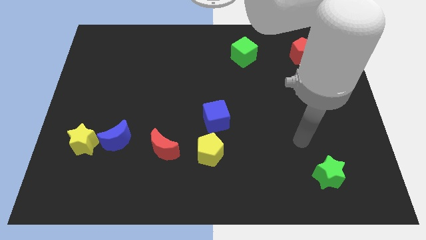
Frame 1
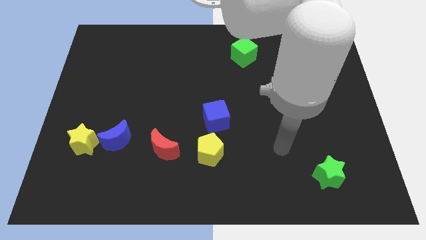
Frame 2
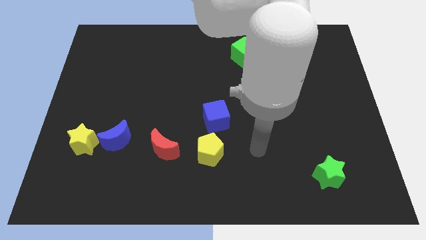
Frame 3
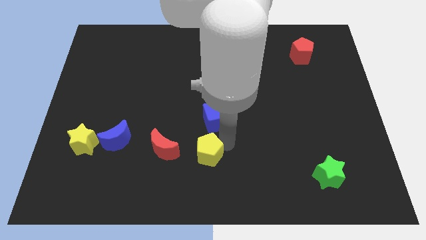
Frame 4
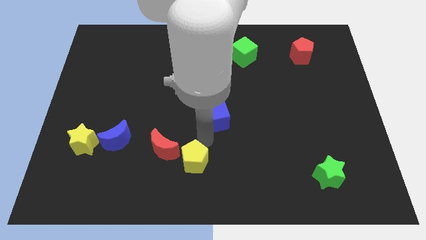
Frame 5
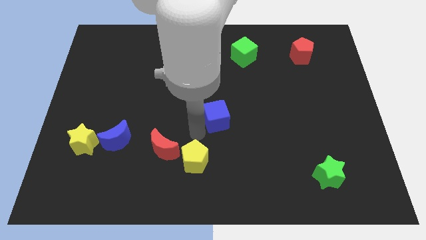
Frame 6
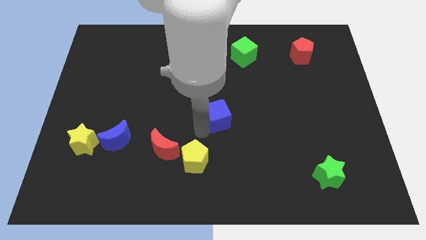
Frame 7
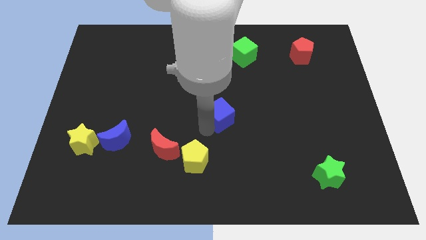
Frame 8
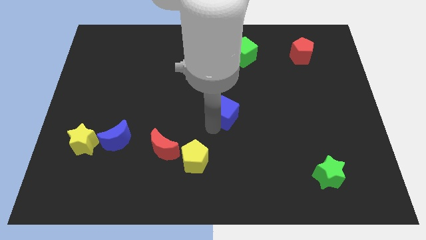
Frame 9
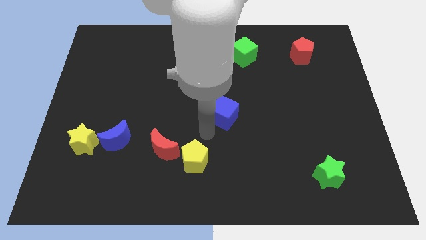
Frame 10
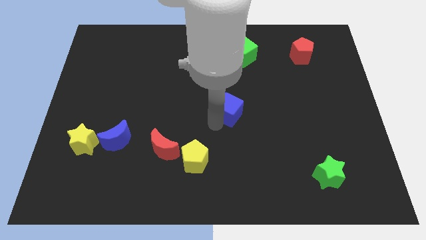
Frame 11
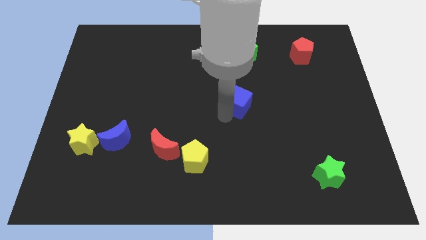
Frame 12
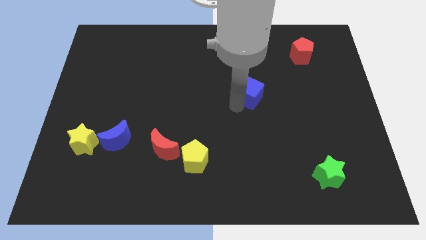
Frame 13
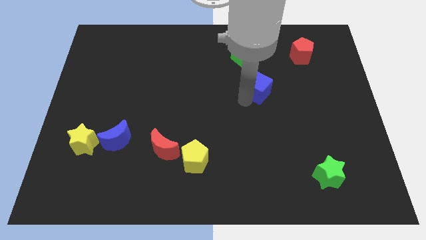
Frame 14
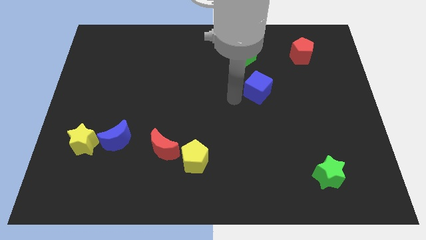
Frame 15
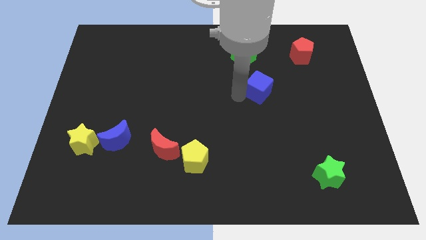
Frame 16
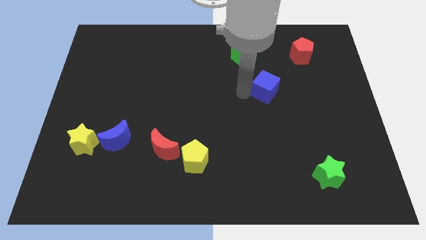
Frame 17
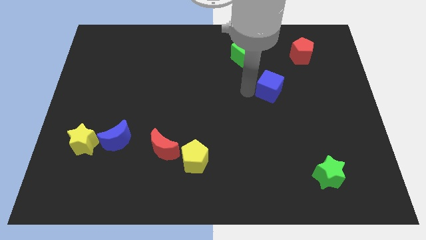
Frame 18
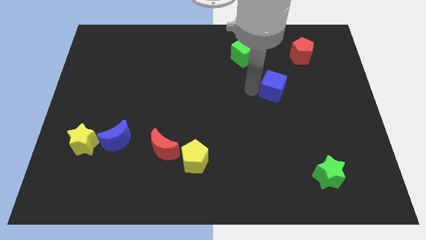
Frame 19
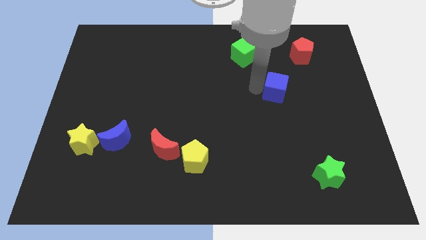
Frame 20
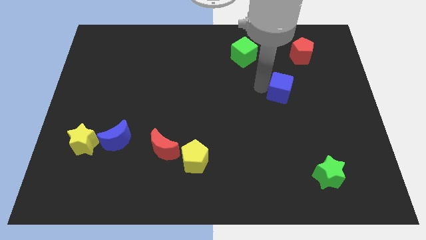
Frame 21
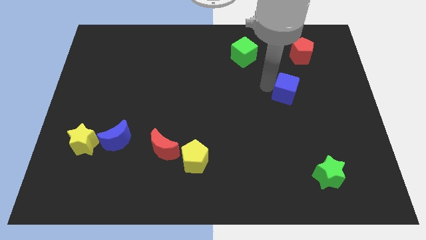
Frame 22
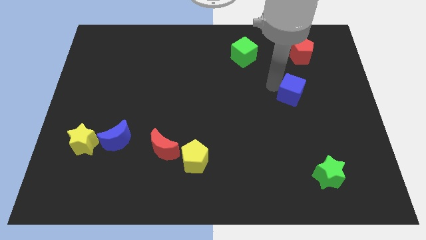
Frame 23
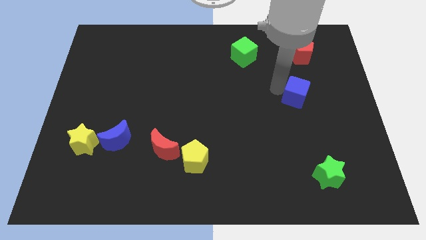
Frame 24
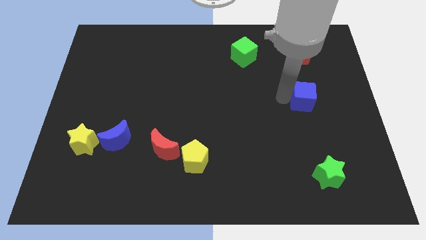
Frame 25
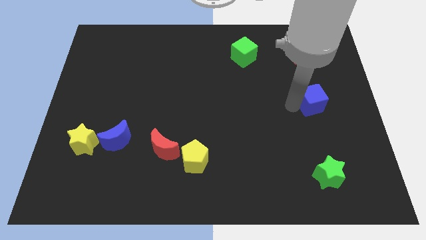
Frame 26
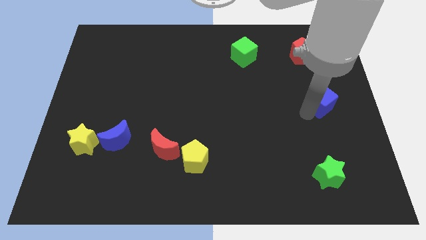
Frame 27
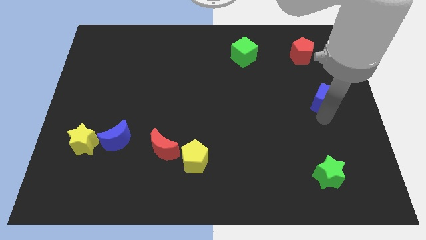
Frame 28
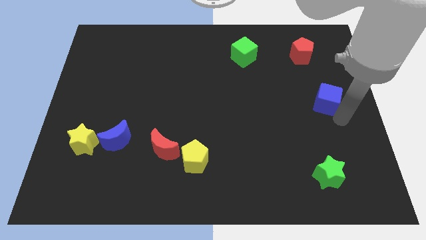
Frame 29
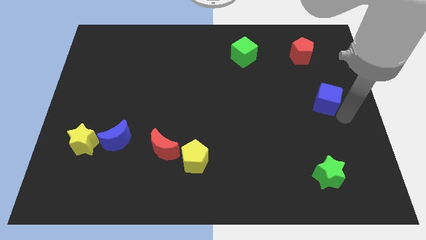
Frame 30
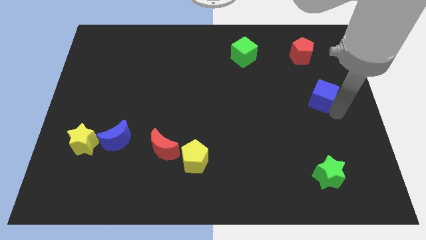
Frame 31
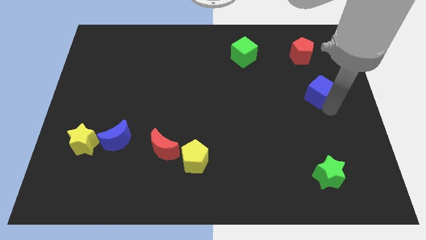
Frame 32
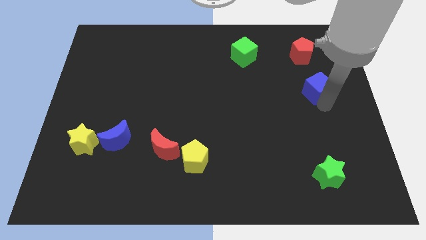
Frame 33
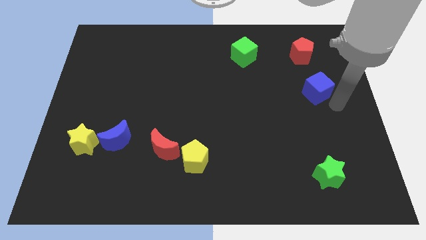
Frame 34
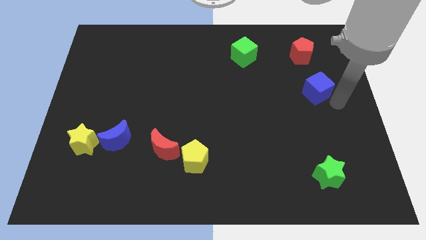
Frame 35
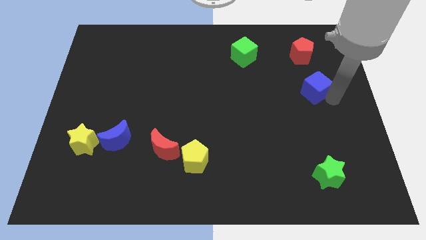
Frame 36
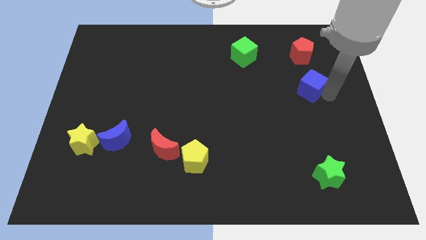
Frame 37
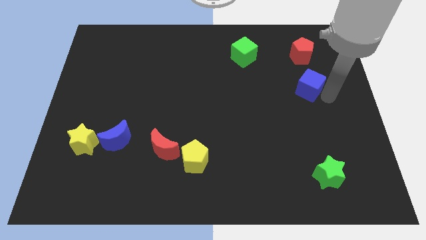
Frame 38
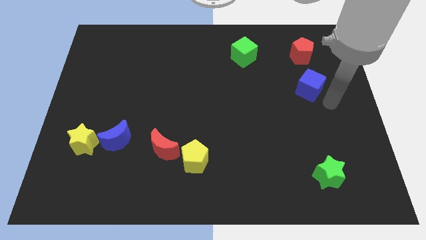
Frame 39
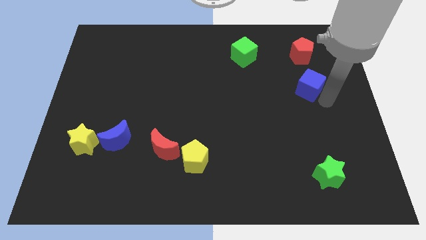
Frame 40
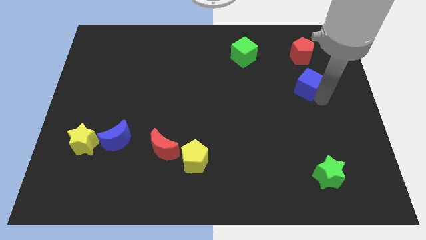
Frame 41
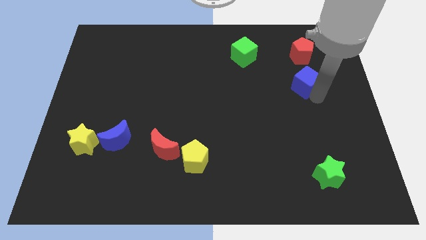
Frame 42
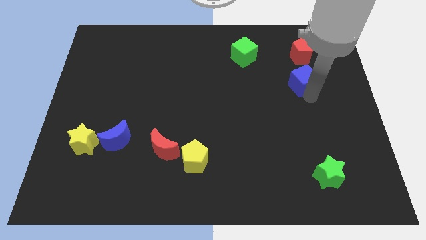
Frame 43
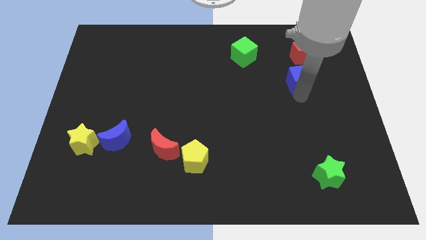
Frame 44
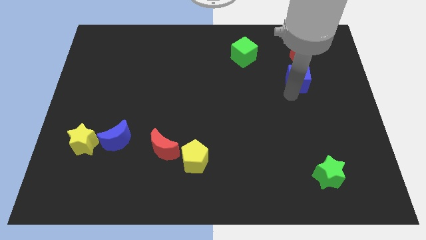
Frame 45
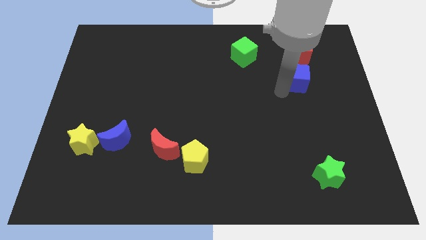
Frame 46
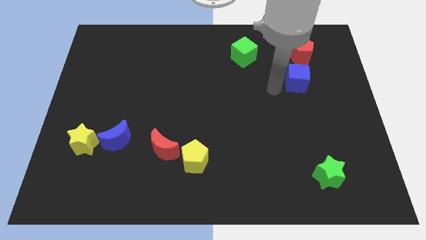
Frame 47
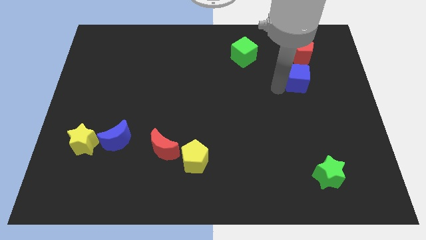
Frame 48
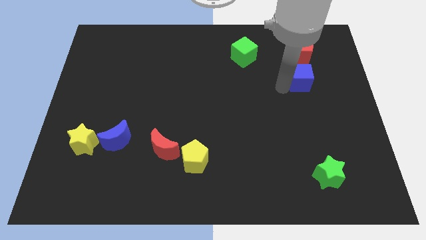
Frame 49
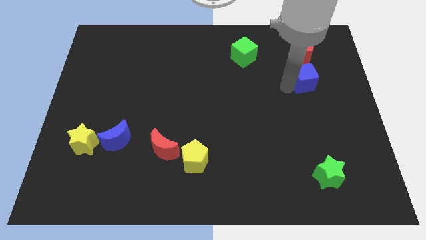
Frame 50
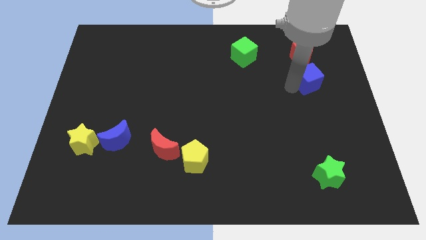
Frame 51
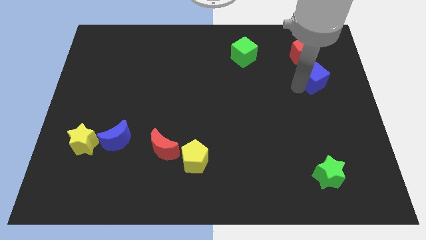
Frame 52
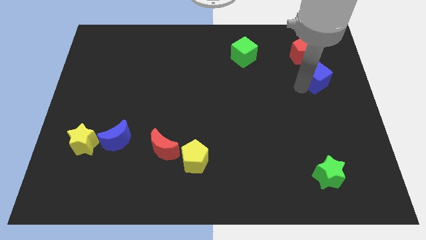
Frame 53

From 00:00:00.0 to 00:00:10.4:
slide the blue cube diagonally down and to the right of the red pentagon

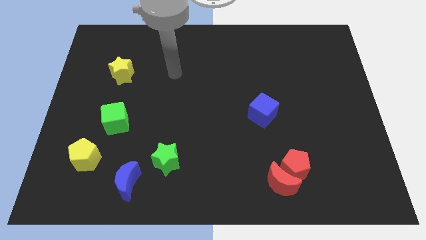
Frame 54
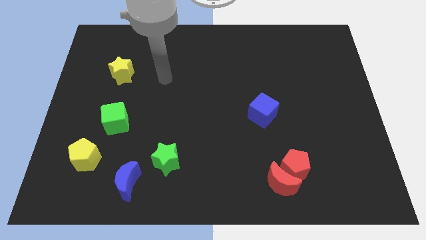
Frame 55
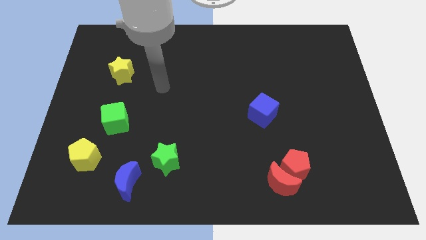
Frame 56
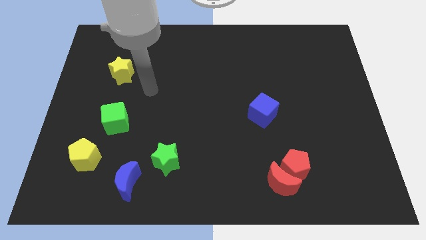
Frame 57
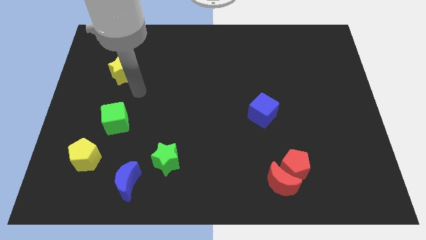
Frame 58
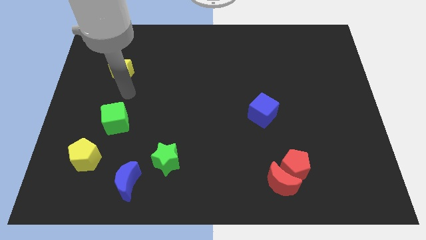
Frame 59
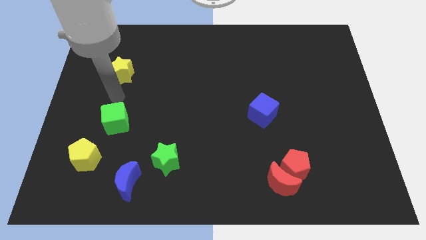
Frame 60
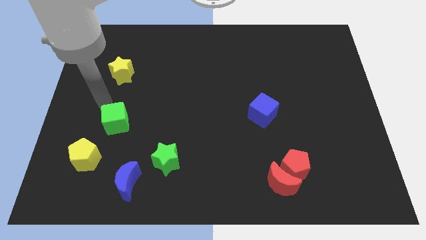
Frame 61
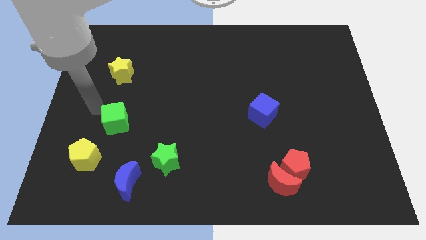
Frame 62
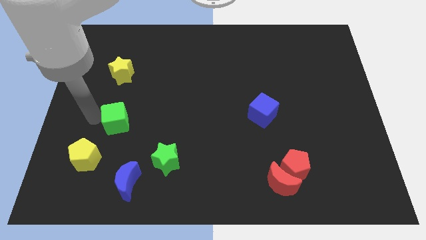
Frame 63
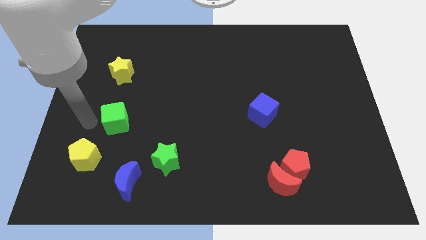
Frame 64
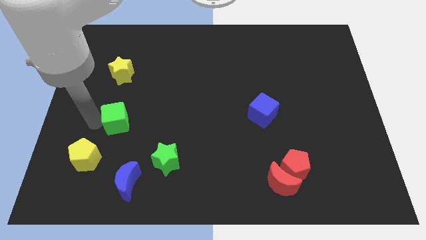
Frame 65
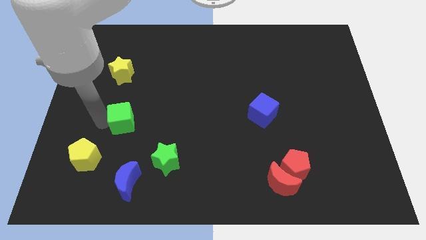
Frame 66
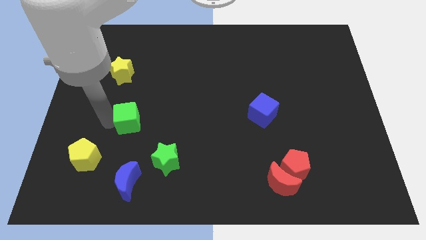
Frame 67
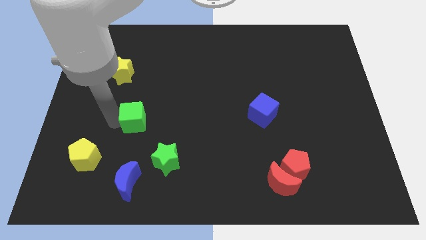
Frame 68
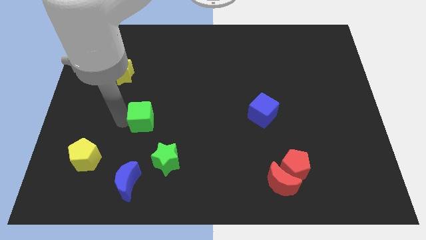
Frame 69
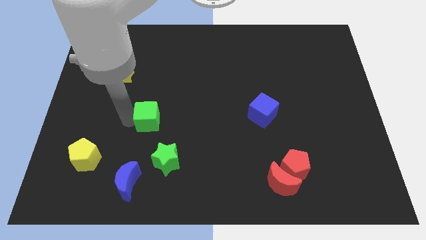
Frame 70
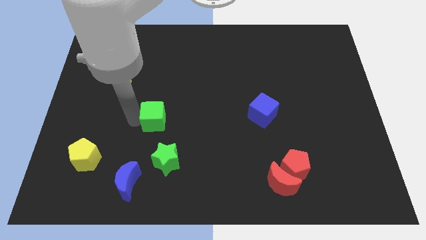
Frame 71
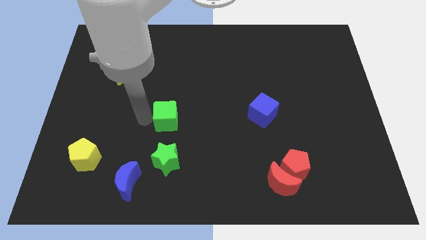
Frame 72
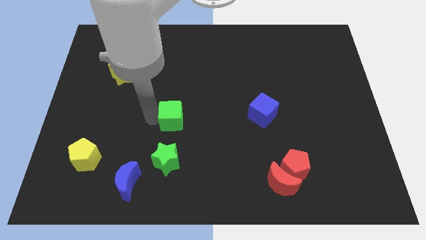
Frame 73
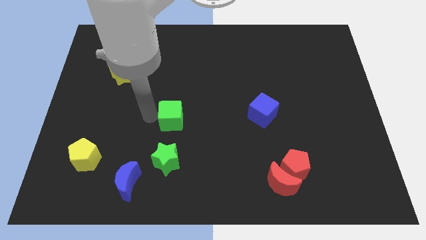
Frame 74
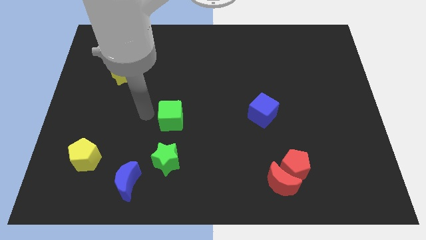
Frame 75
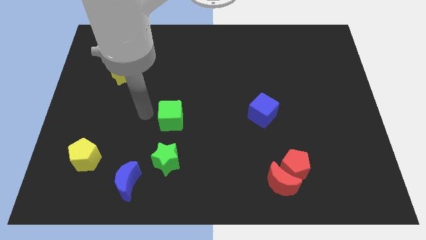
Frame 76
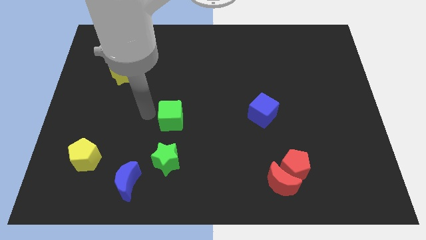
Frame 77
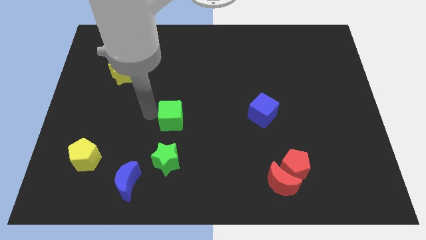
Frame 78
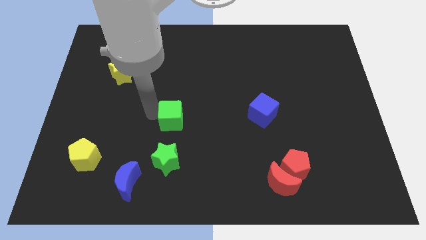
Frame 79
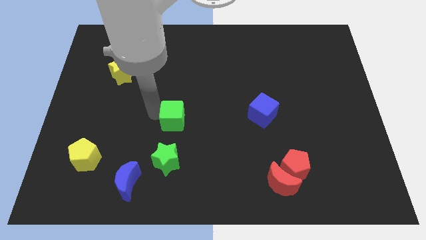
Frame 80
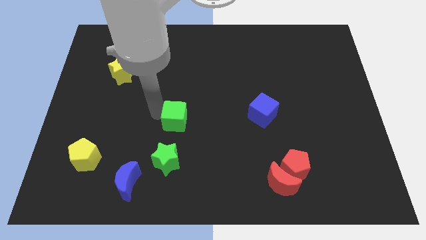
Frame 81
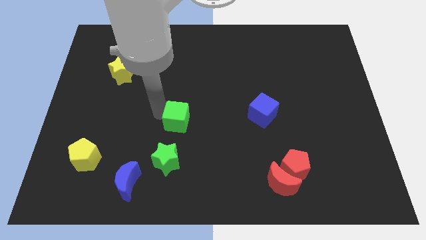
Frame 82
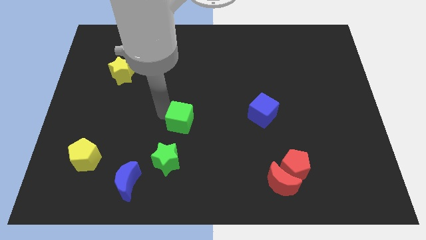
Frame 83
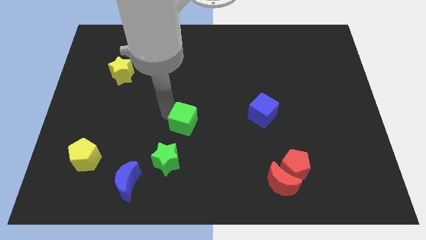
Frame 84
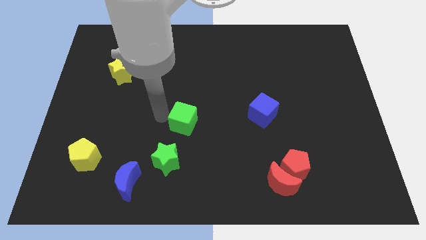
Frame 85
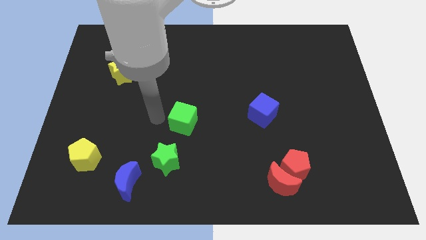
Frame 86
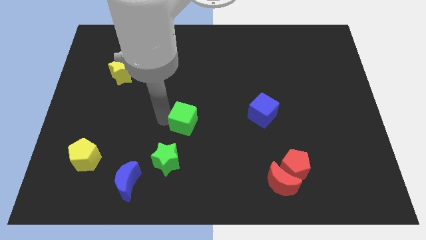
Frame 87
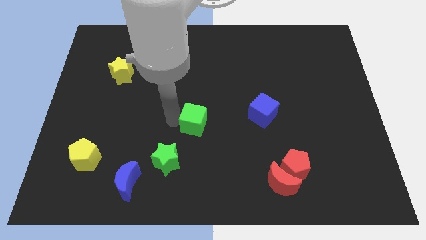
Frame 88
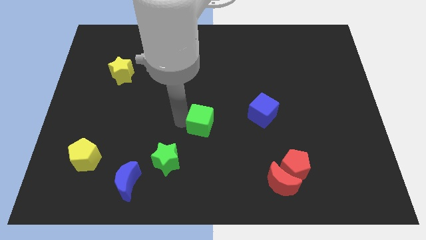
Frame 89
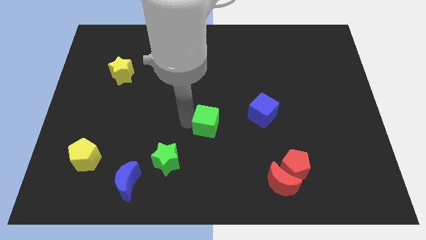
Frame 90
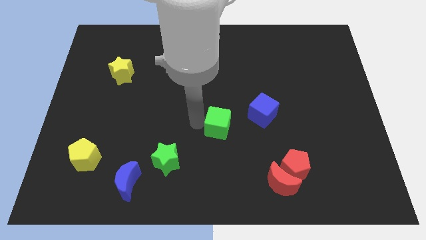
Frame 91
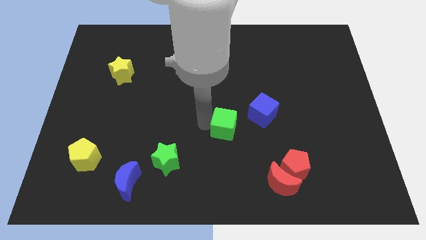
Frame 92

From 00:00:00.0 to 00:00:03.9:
put the green cube to the bottom left of the blue cube
